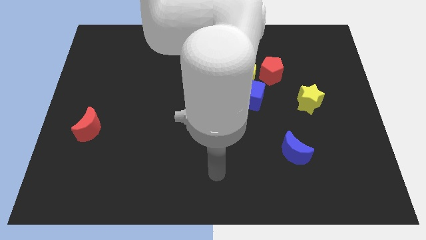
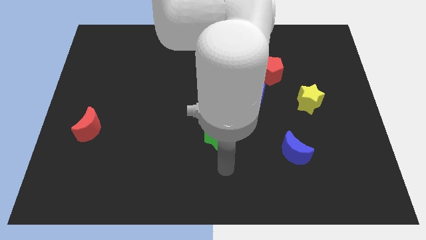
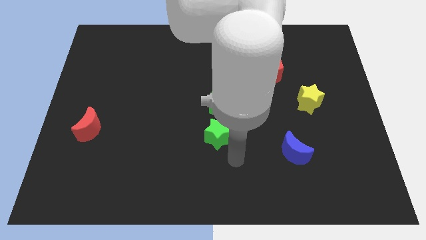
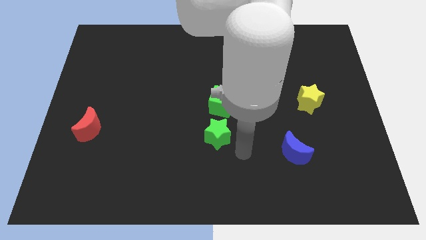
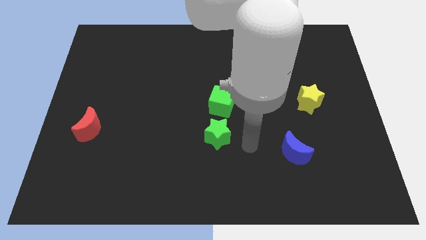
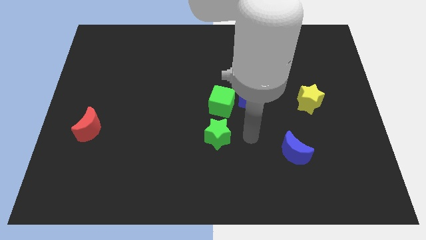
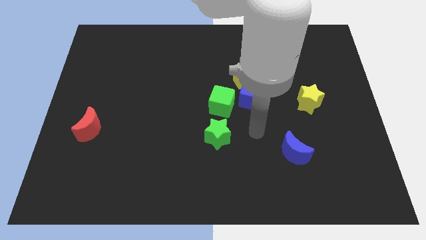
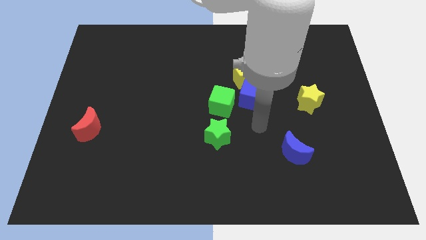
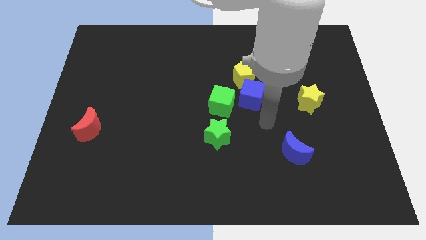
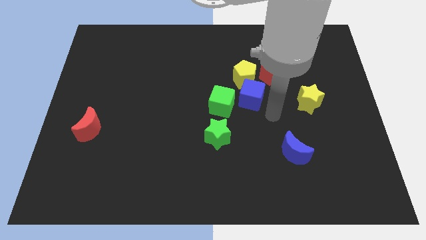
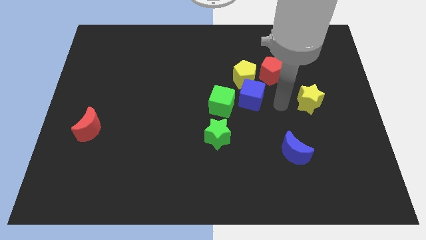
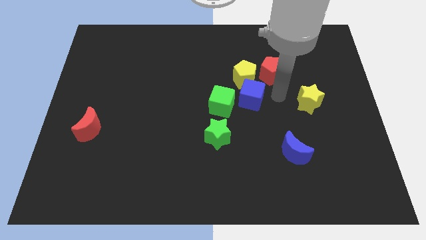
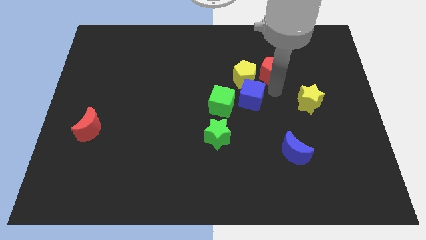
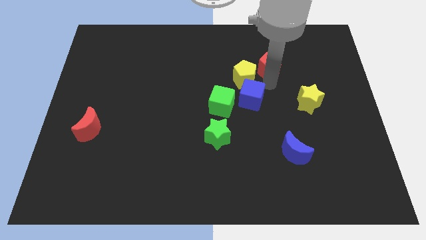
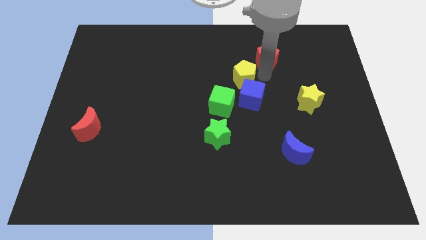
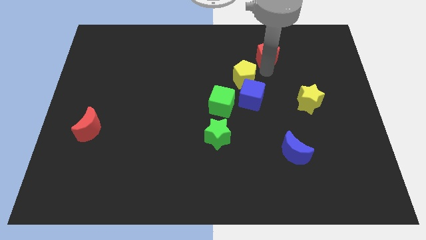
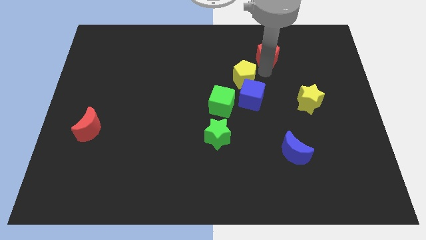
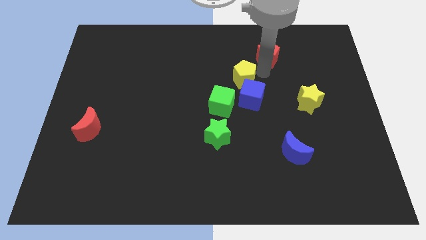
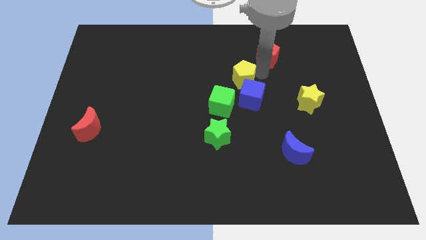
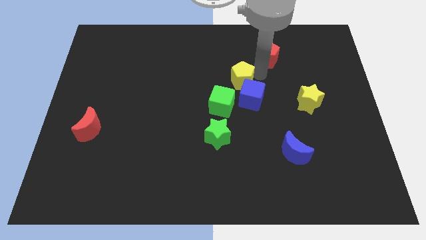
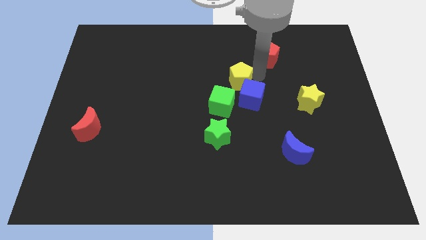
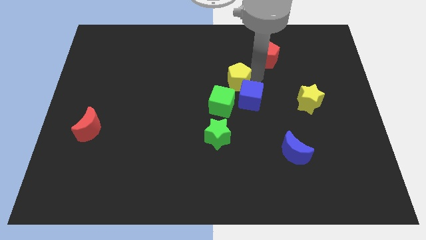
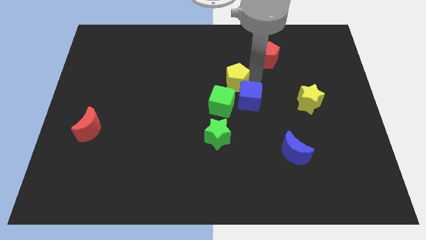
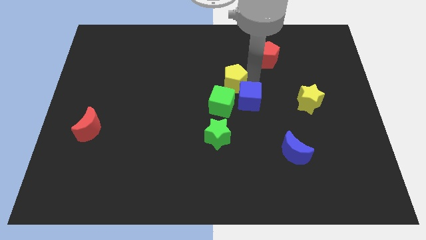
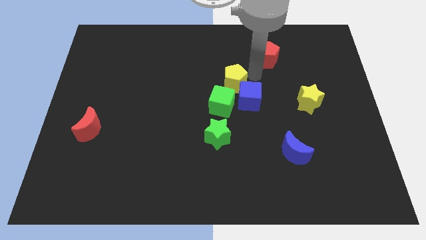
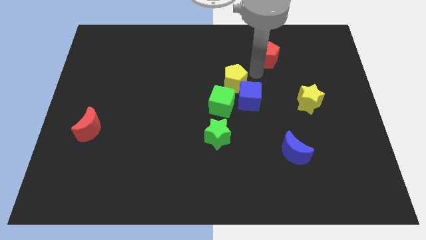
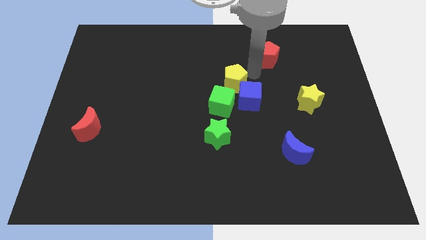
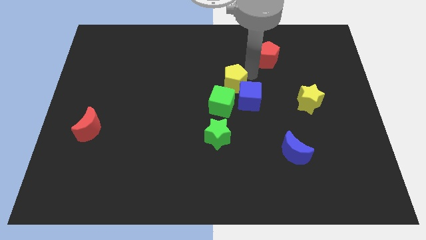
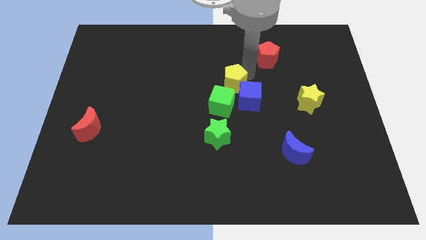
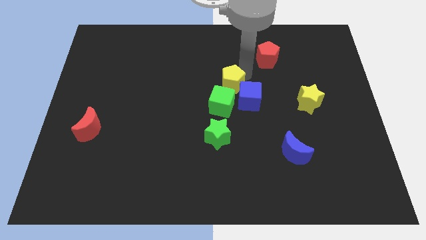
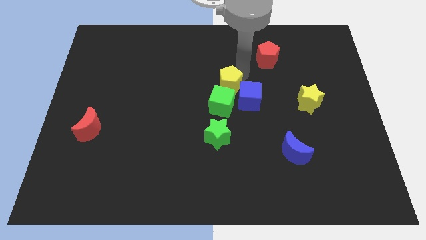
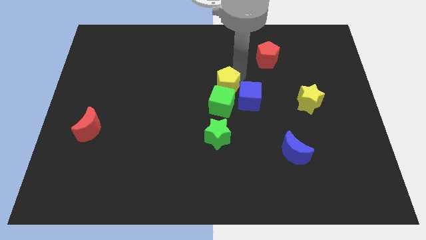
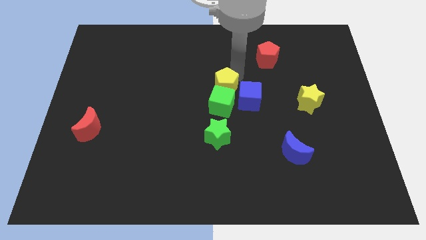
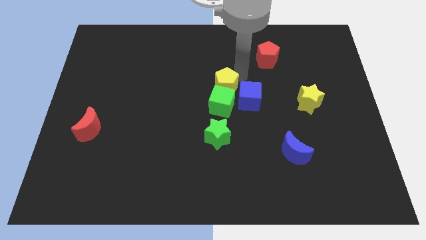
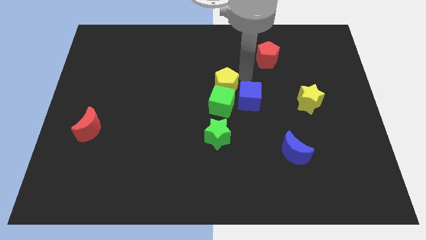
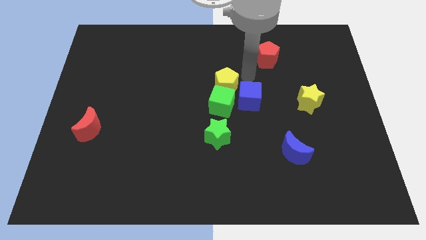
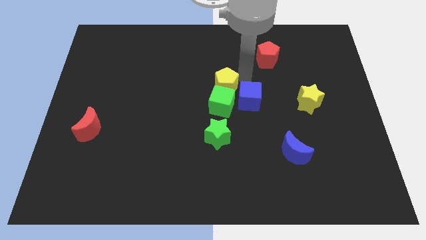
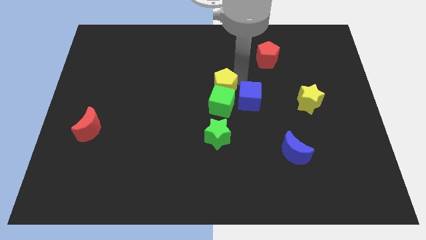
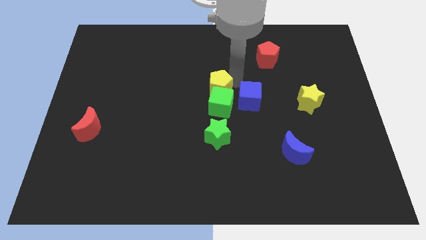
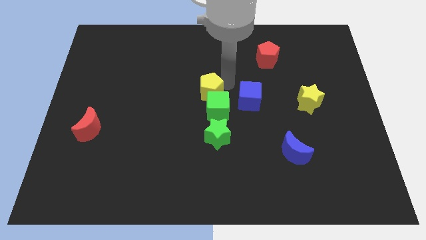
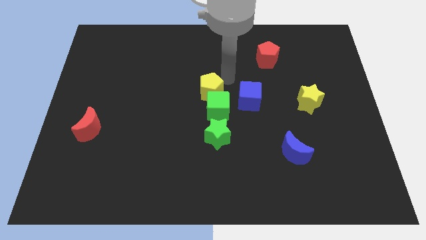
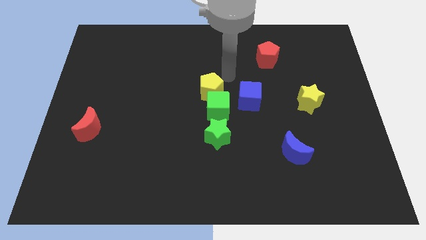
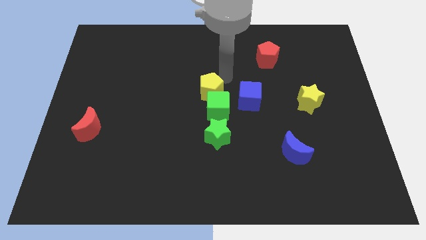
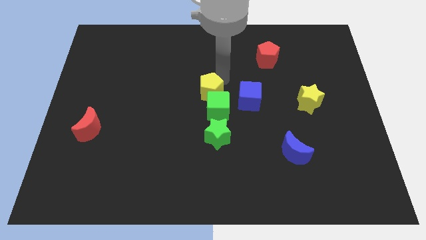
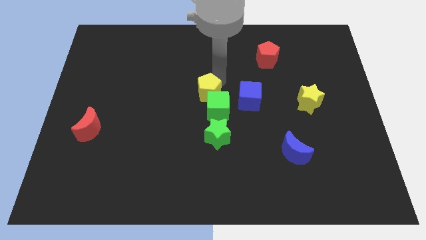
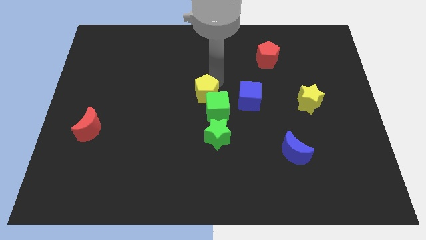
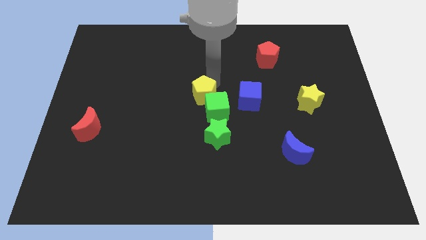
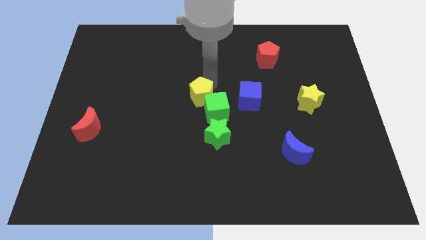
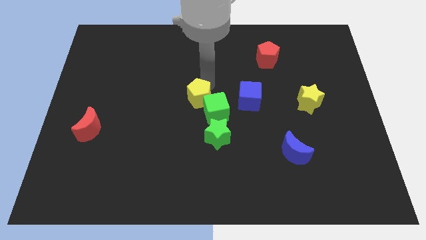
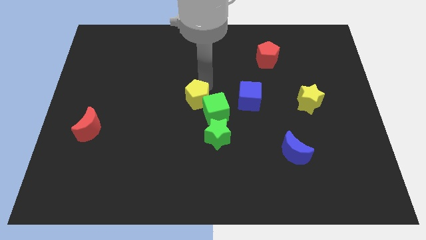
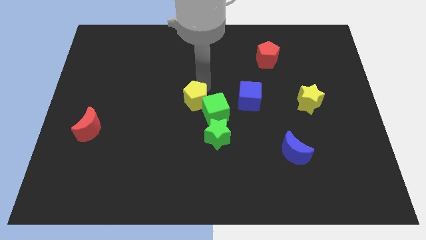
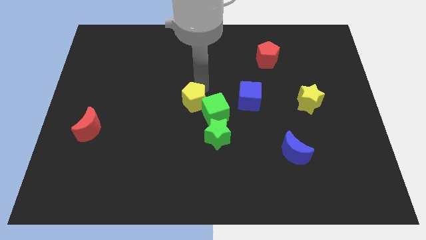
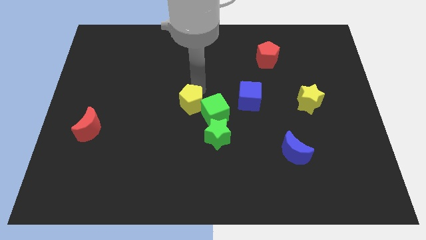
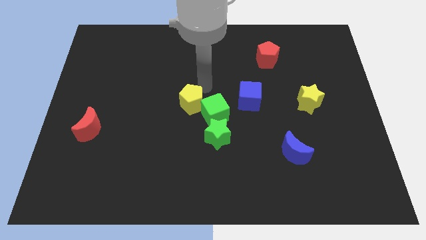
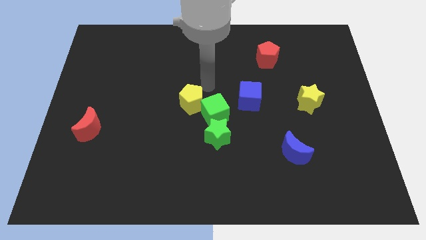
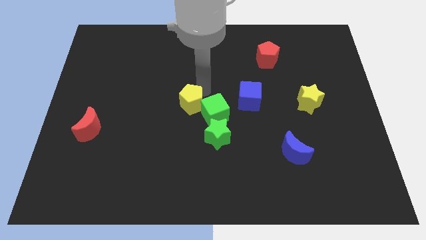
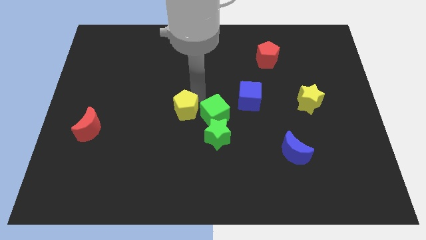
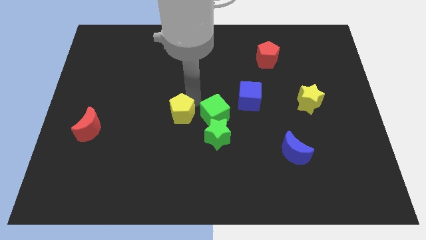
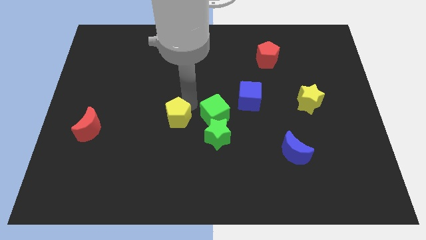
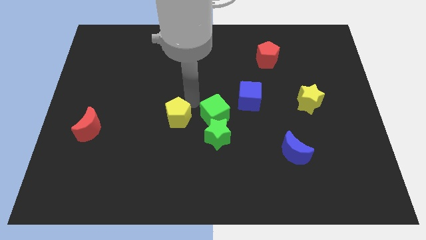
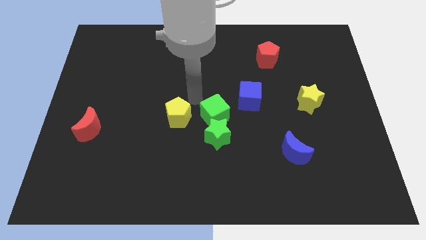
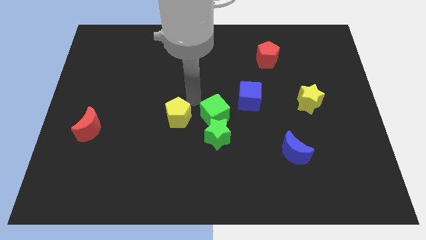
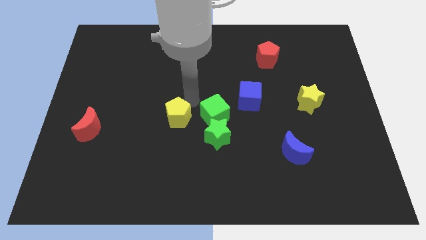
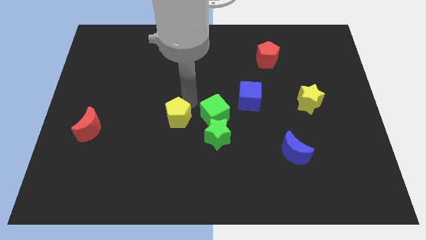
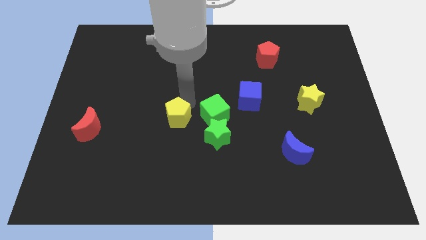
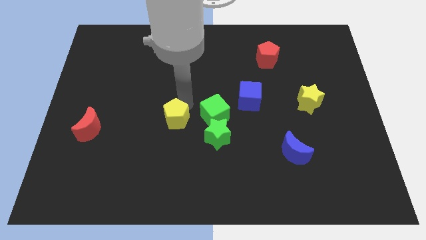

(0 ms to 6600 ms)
slide the yellow pentagon diagonally downwards and to the left

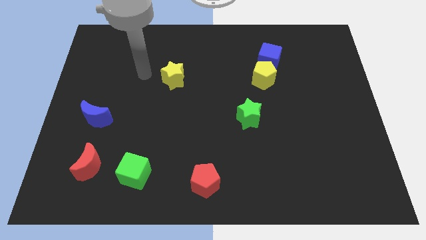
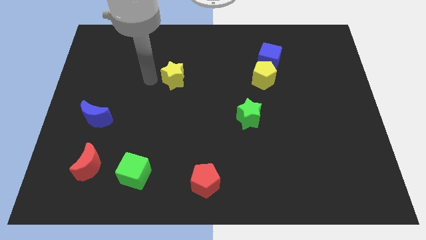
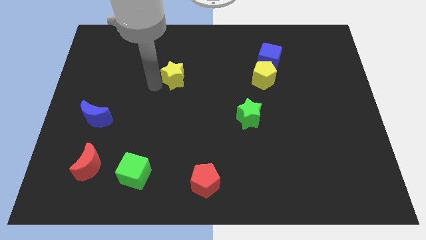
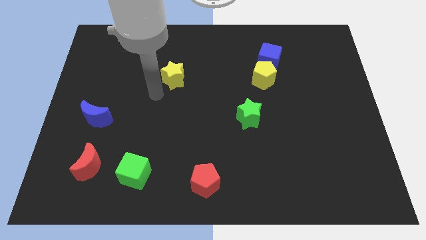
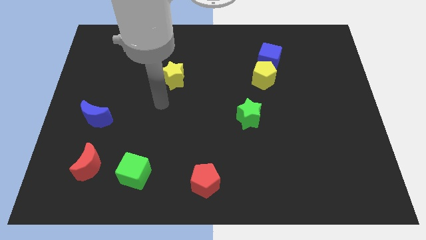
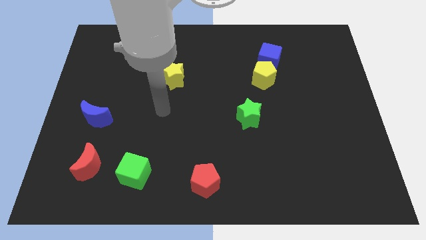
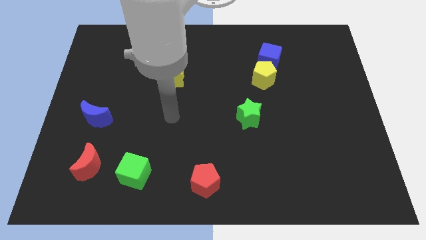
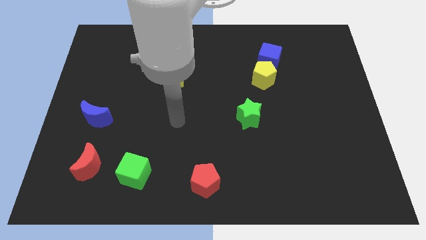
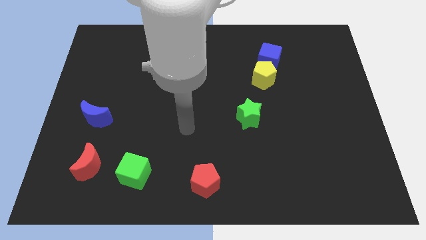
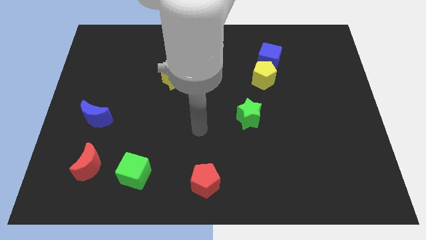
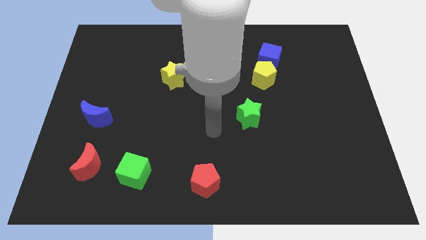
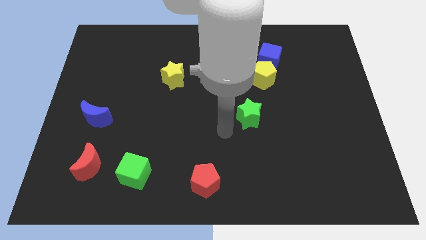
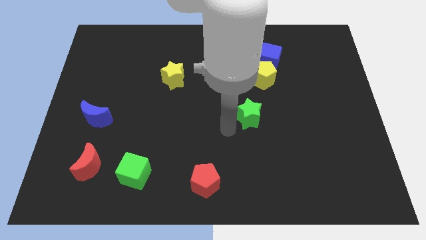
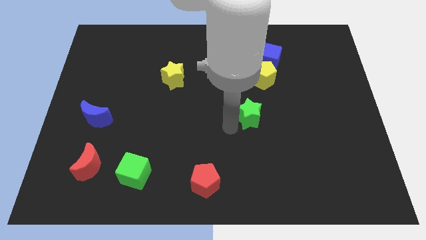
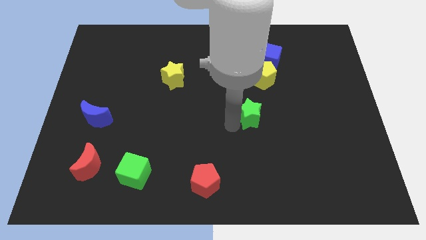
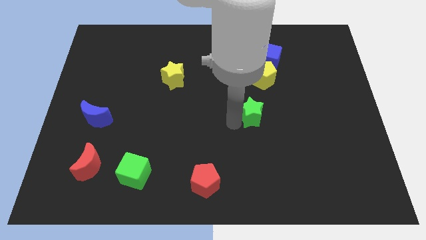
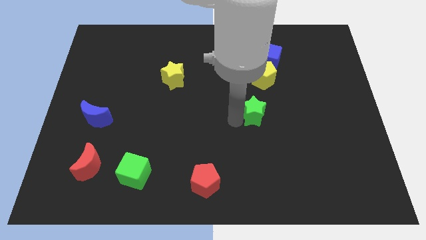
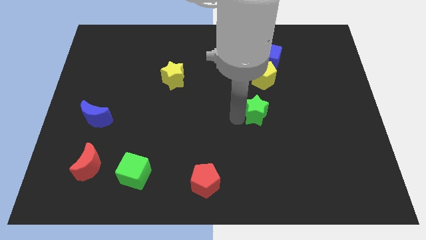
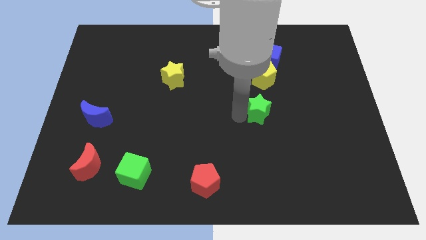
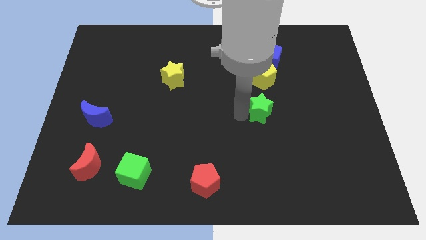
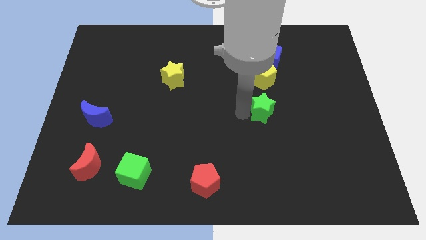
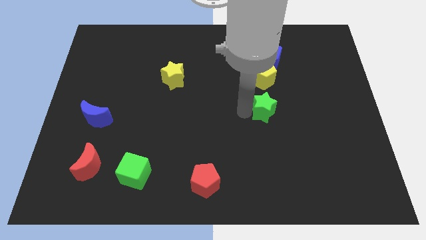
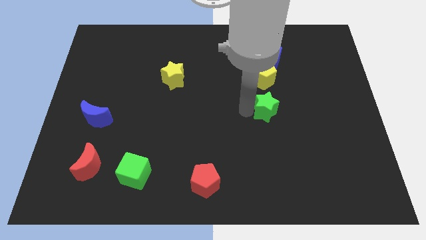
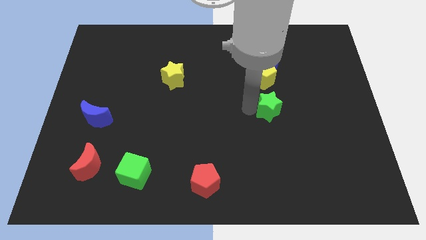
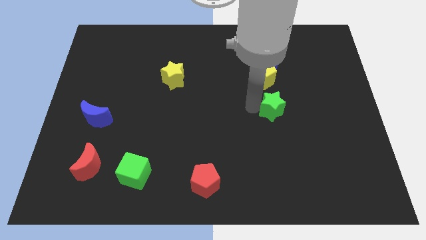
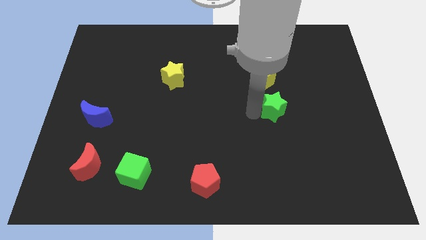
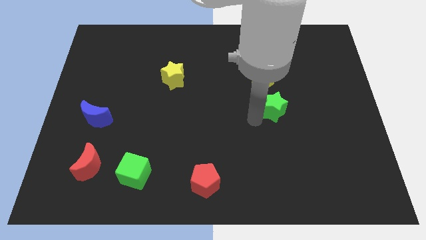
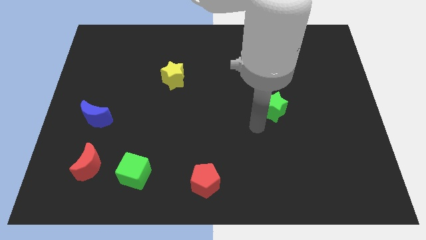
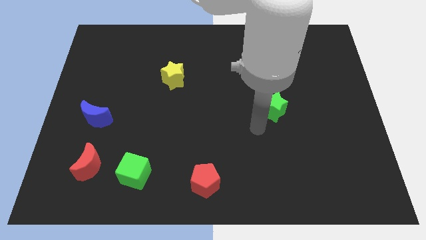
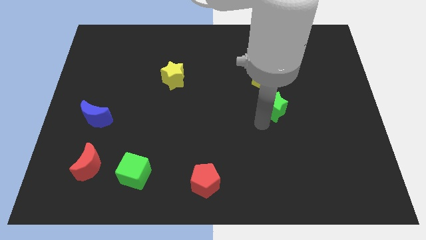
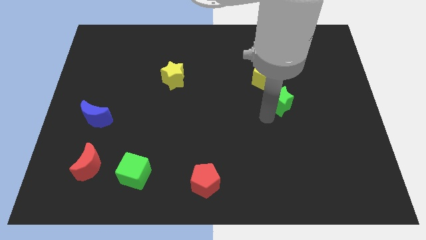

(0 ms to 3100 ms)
slide the green star a little bit diagonally upwards and right
